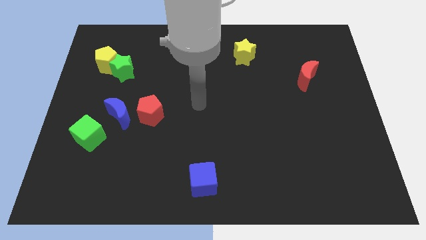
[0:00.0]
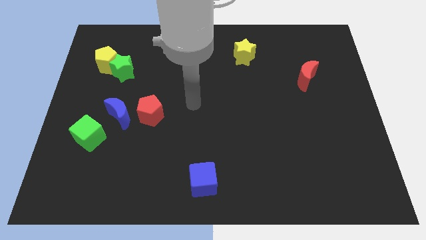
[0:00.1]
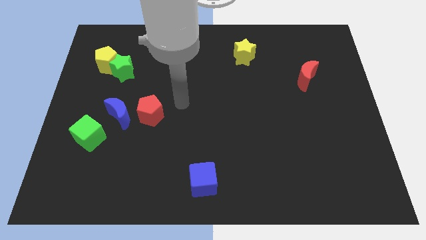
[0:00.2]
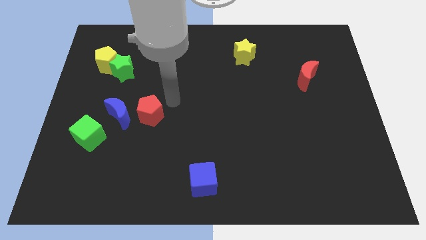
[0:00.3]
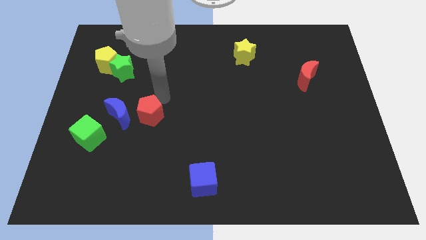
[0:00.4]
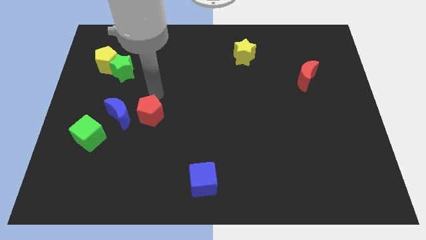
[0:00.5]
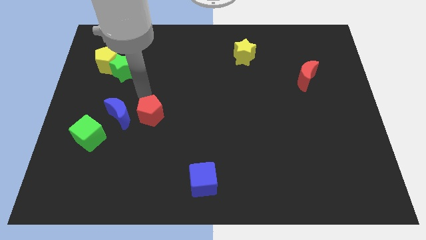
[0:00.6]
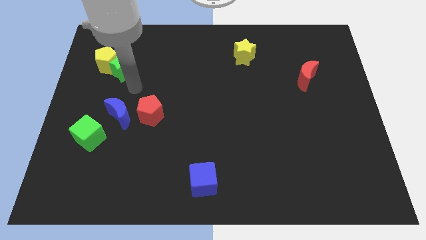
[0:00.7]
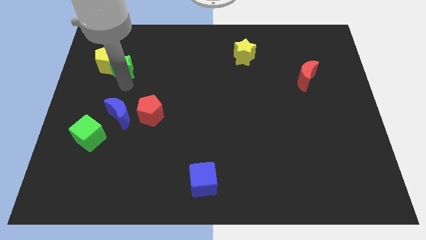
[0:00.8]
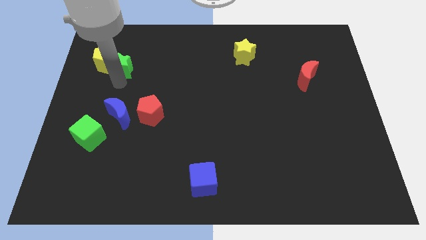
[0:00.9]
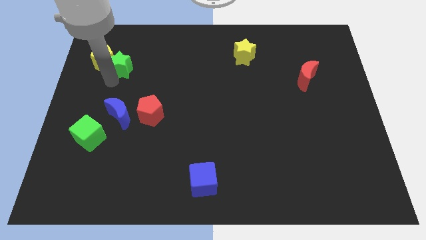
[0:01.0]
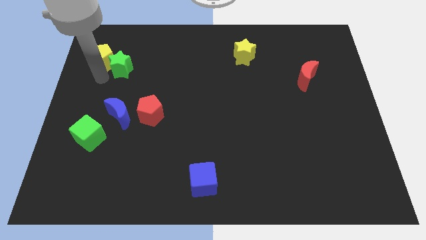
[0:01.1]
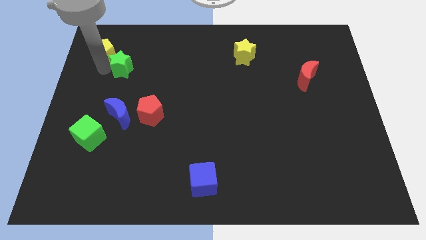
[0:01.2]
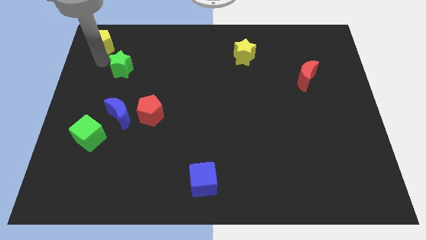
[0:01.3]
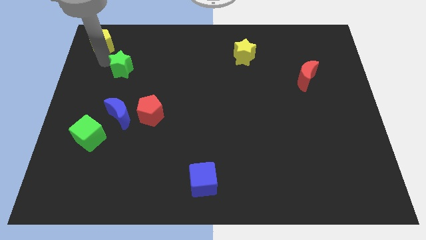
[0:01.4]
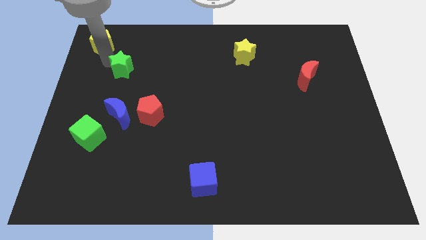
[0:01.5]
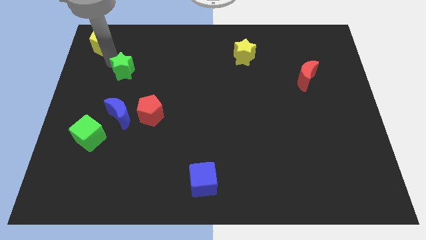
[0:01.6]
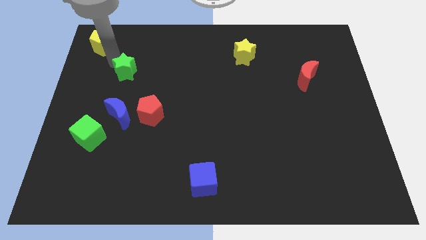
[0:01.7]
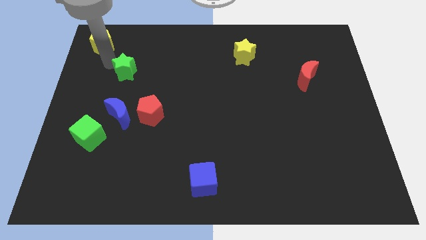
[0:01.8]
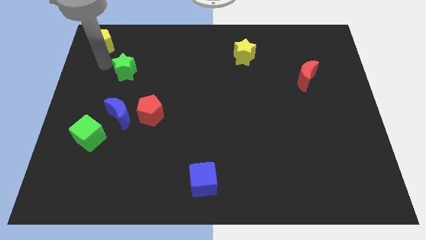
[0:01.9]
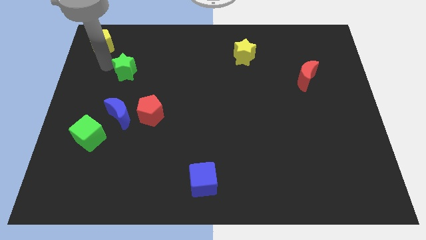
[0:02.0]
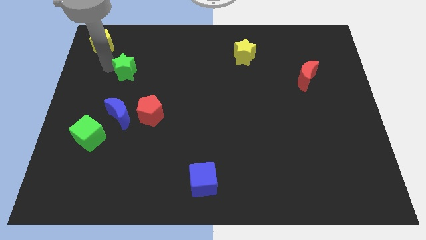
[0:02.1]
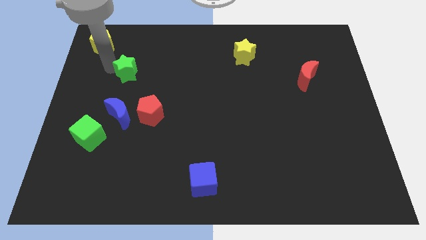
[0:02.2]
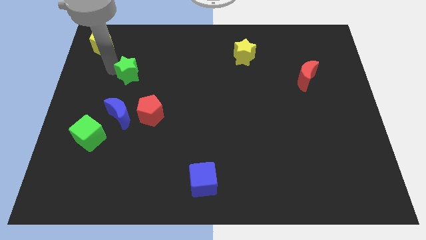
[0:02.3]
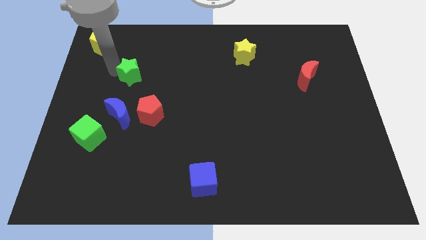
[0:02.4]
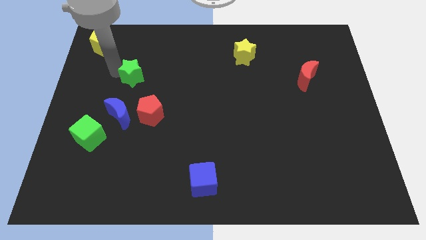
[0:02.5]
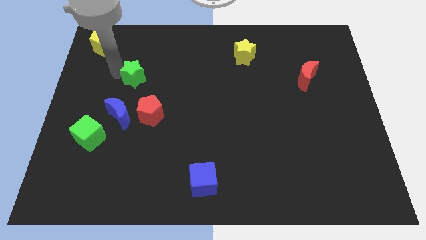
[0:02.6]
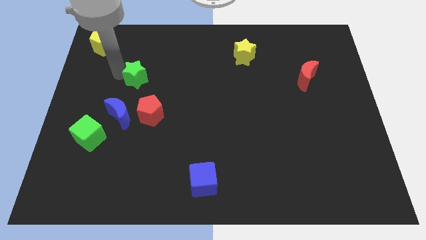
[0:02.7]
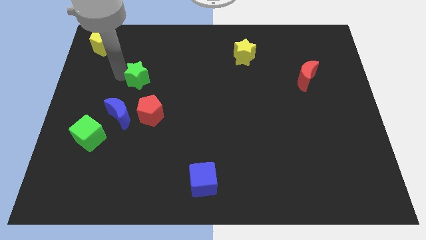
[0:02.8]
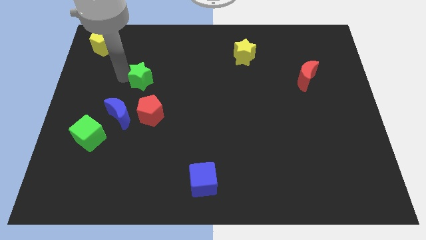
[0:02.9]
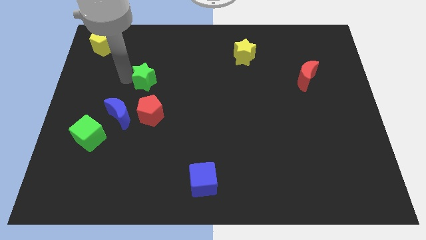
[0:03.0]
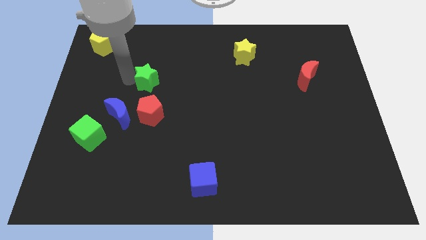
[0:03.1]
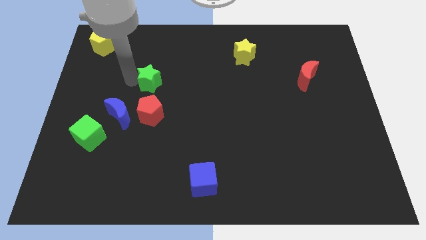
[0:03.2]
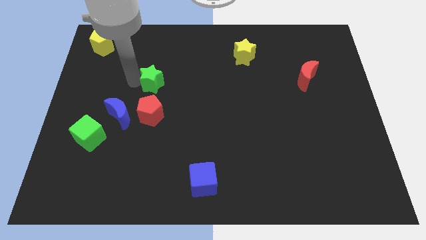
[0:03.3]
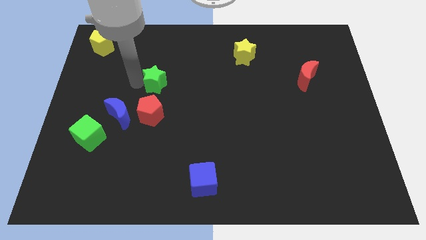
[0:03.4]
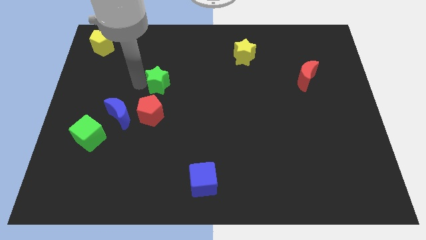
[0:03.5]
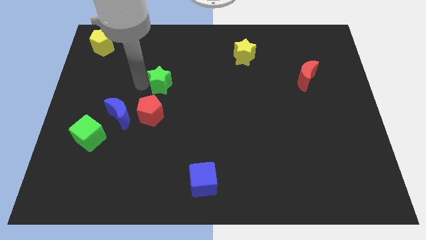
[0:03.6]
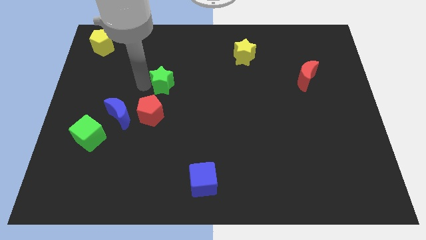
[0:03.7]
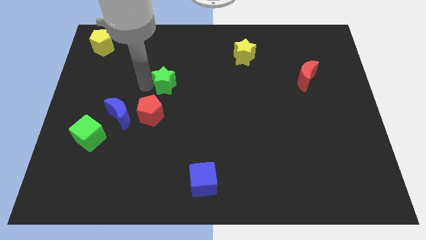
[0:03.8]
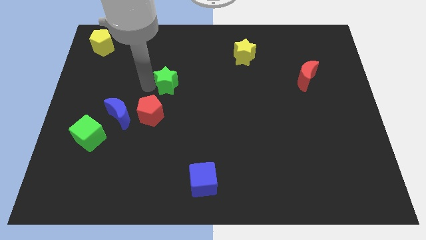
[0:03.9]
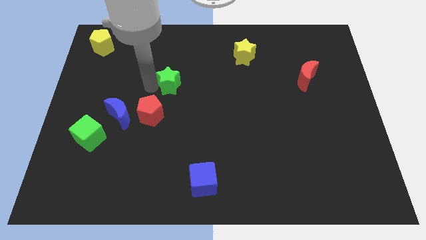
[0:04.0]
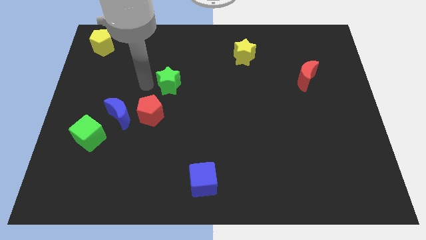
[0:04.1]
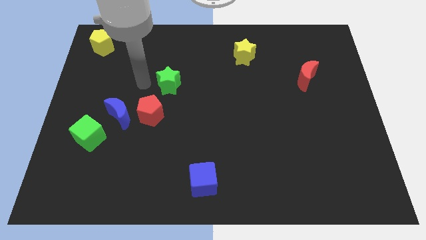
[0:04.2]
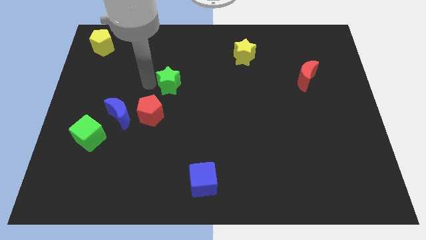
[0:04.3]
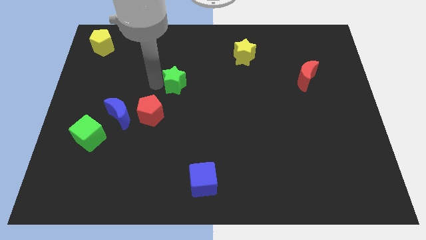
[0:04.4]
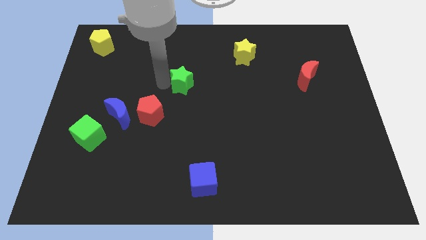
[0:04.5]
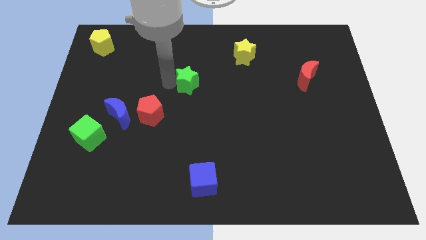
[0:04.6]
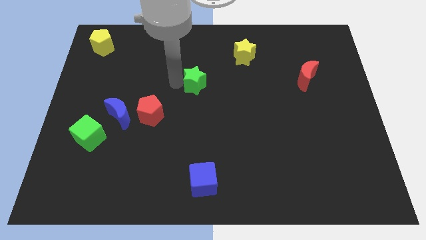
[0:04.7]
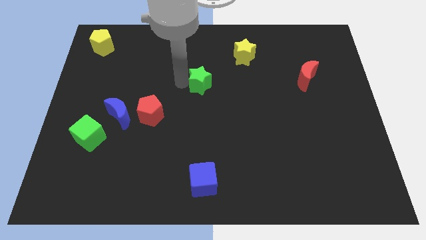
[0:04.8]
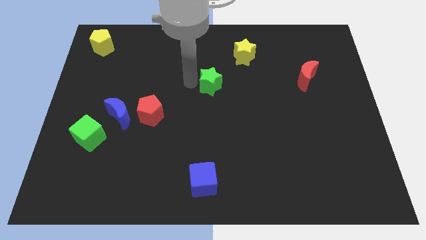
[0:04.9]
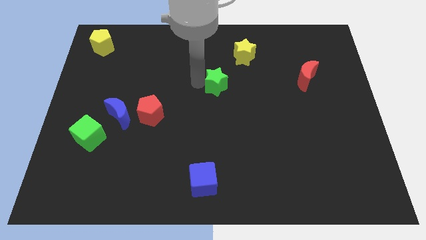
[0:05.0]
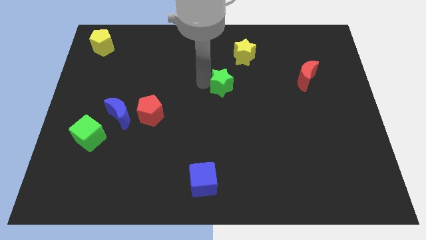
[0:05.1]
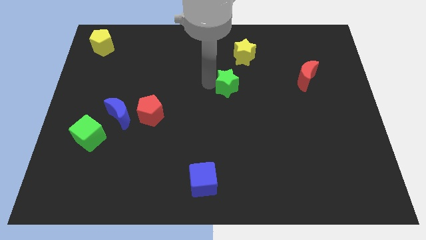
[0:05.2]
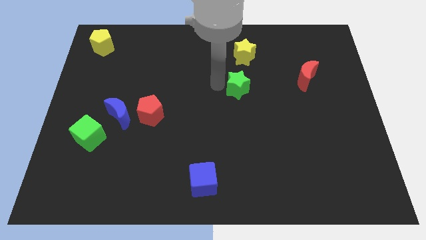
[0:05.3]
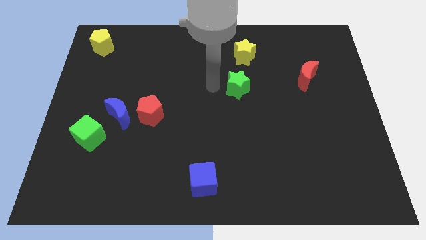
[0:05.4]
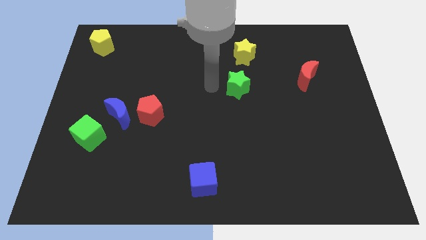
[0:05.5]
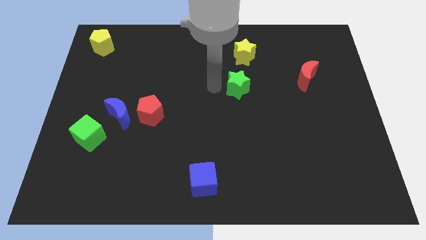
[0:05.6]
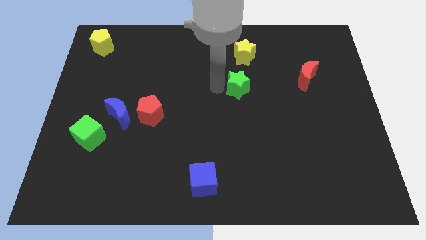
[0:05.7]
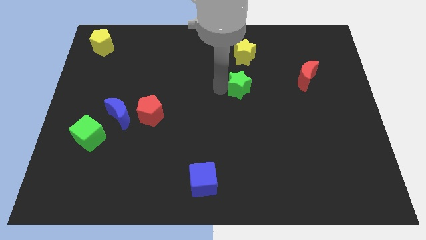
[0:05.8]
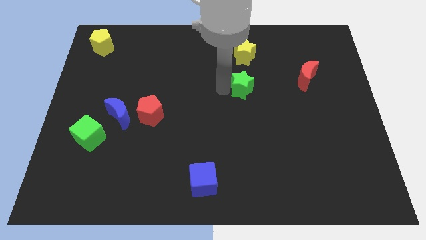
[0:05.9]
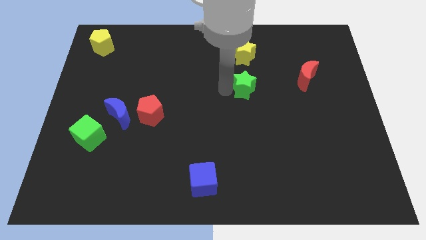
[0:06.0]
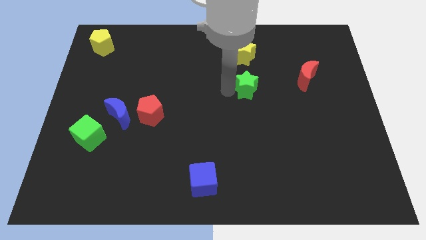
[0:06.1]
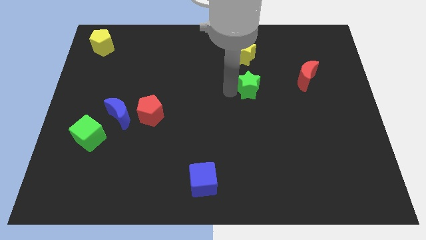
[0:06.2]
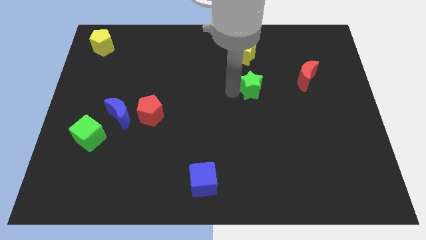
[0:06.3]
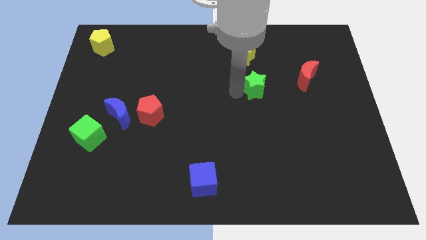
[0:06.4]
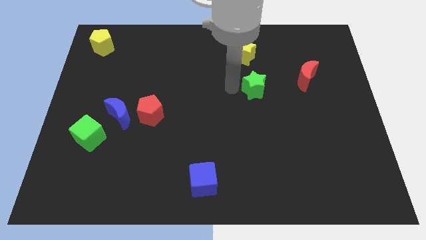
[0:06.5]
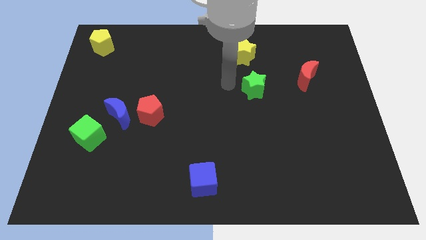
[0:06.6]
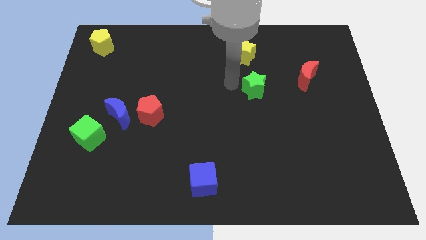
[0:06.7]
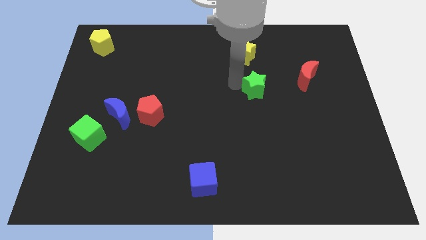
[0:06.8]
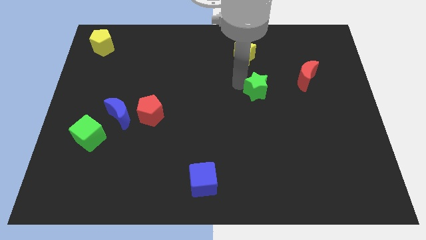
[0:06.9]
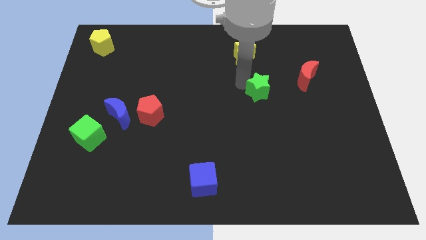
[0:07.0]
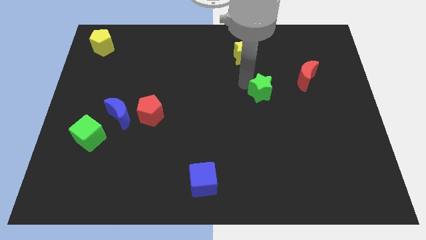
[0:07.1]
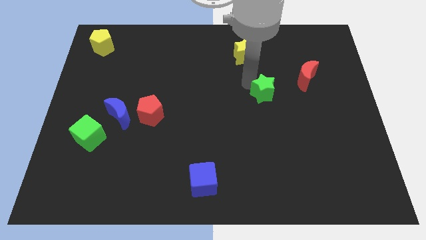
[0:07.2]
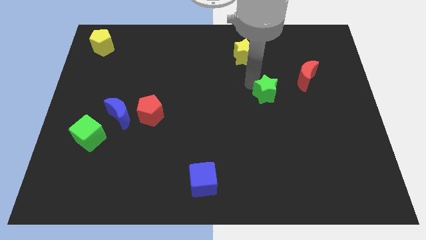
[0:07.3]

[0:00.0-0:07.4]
put the green star to the bottom left of the red moon
